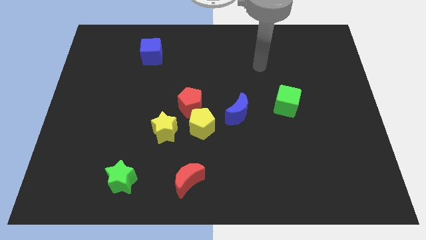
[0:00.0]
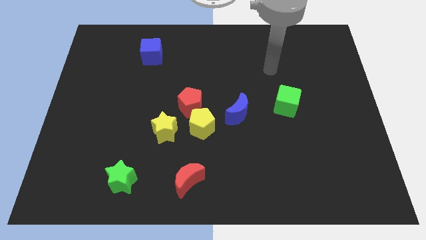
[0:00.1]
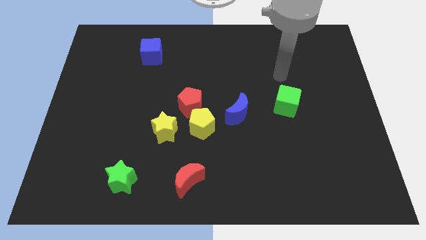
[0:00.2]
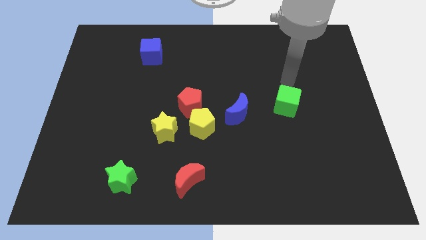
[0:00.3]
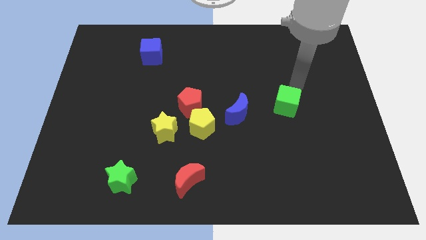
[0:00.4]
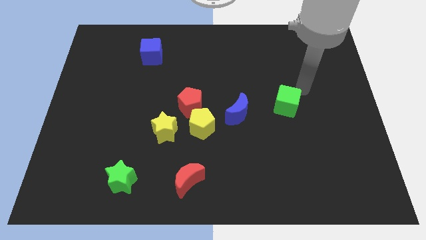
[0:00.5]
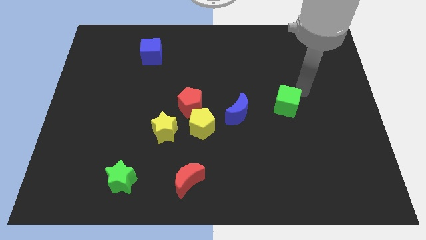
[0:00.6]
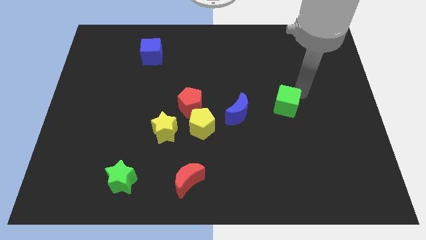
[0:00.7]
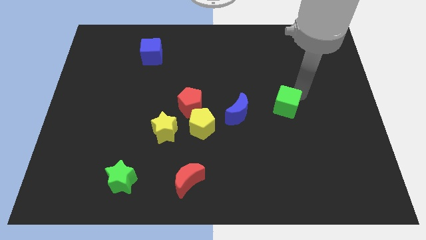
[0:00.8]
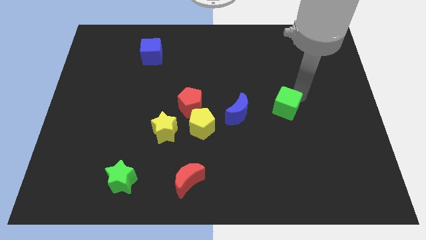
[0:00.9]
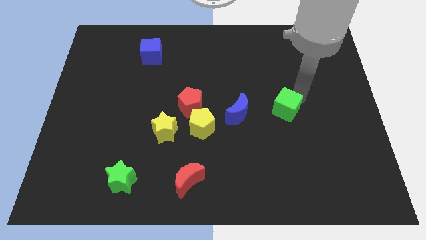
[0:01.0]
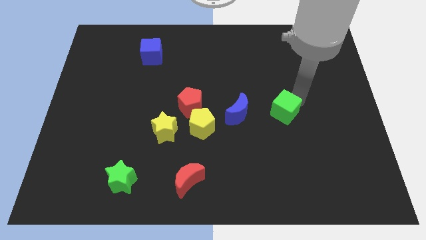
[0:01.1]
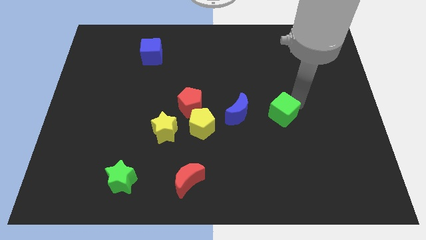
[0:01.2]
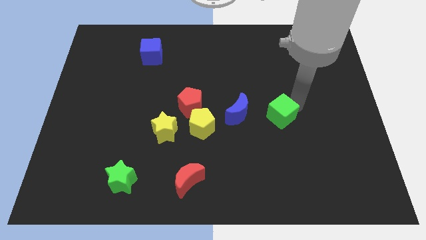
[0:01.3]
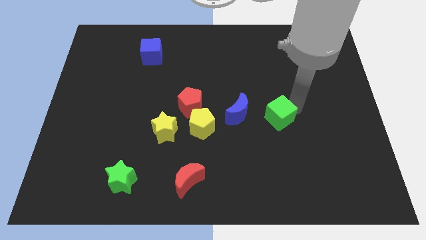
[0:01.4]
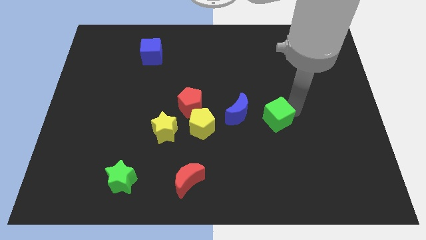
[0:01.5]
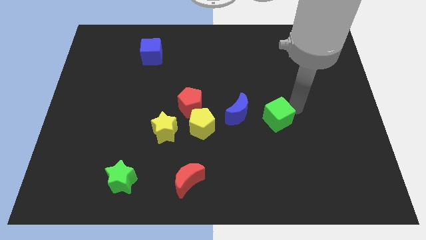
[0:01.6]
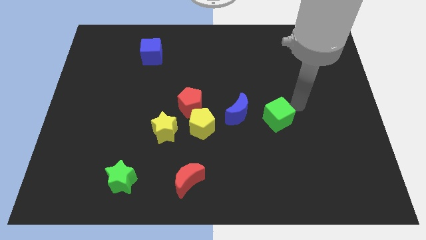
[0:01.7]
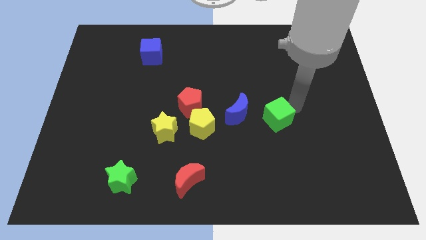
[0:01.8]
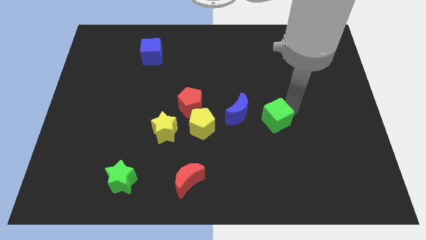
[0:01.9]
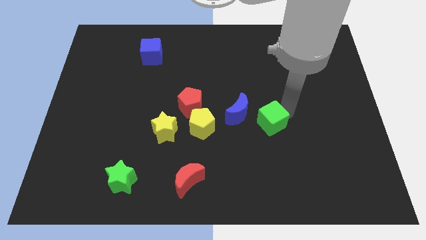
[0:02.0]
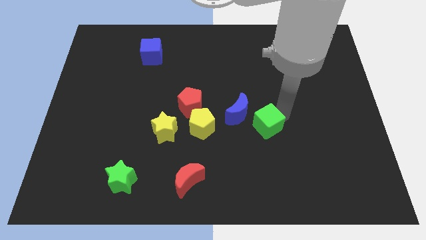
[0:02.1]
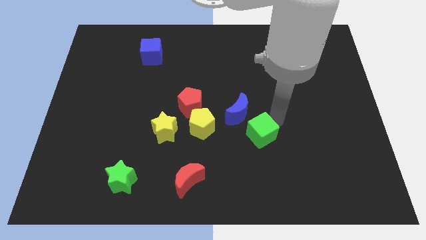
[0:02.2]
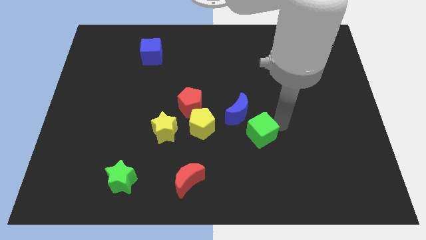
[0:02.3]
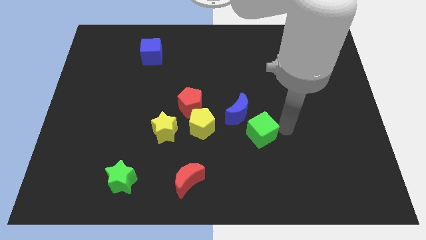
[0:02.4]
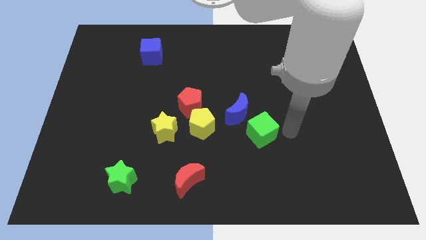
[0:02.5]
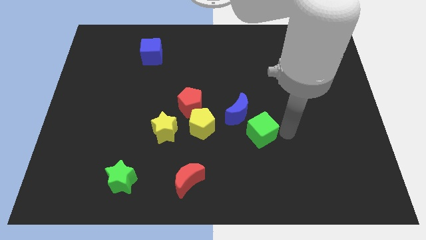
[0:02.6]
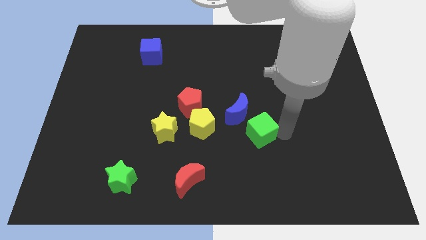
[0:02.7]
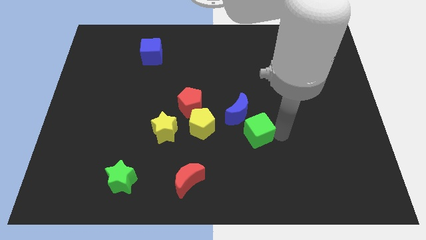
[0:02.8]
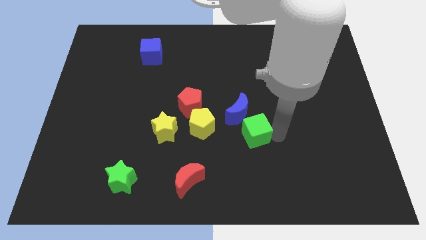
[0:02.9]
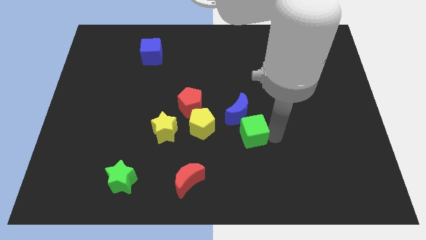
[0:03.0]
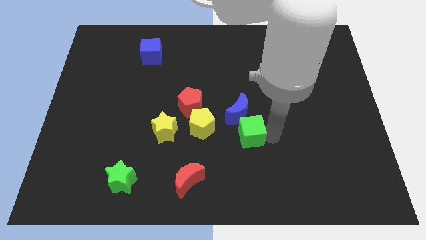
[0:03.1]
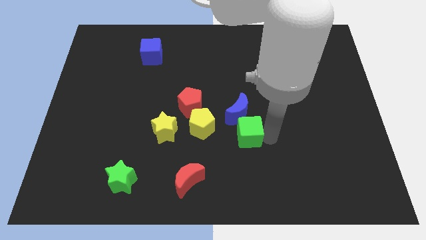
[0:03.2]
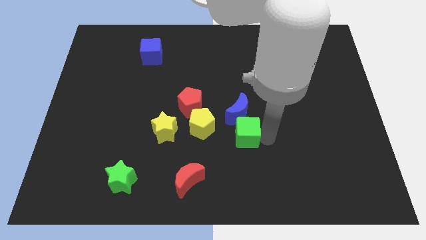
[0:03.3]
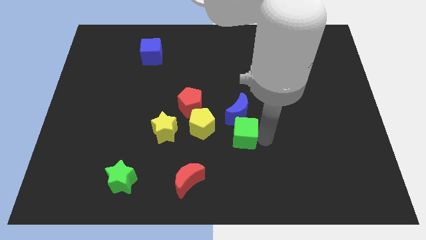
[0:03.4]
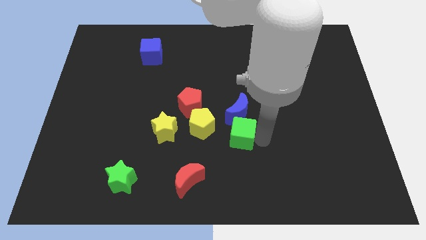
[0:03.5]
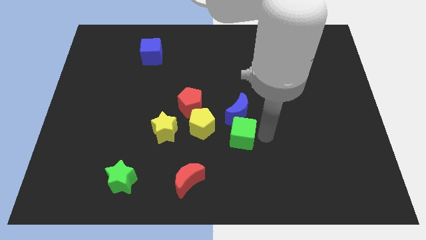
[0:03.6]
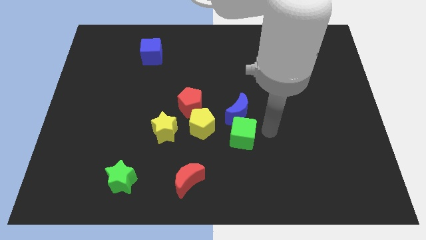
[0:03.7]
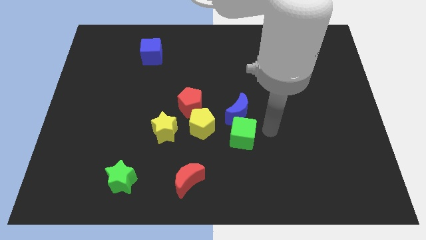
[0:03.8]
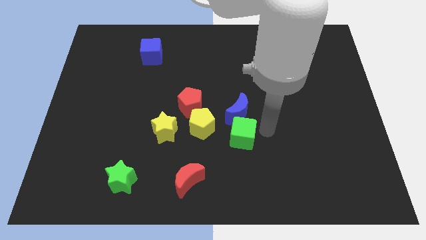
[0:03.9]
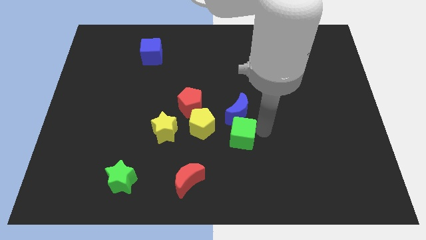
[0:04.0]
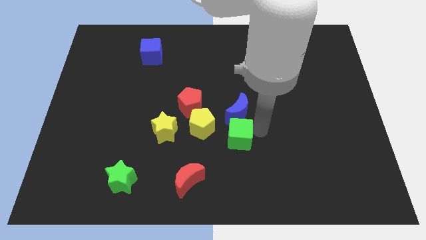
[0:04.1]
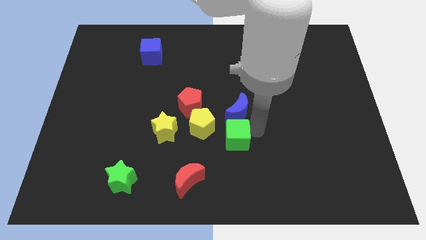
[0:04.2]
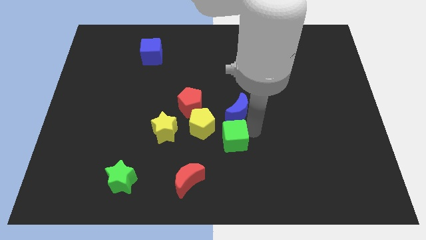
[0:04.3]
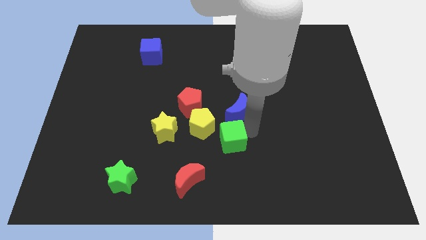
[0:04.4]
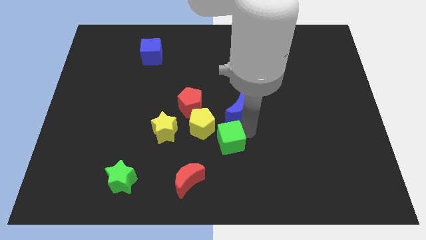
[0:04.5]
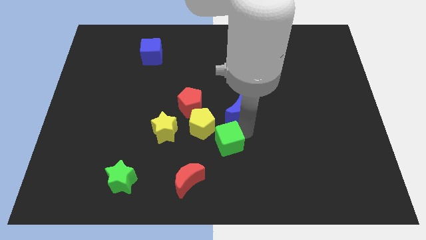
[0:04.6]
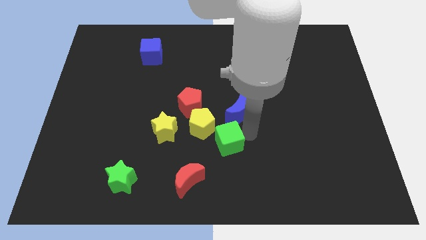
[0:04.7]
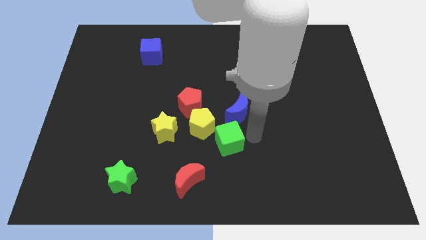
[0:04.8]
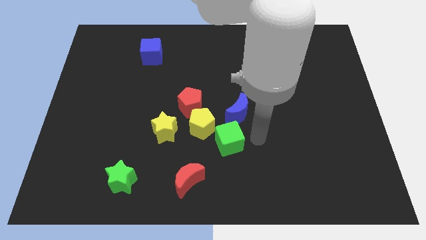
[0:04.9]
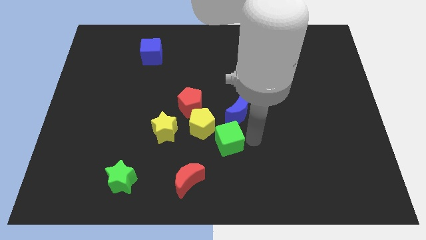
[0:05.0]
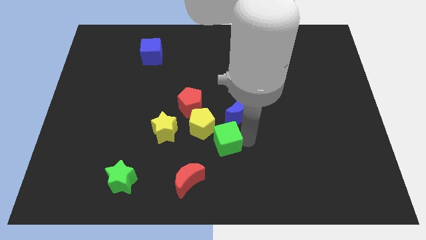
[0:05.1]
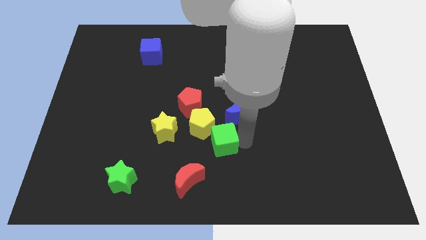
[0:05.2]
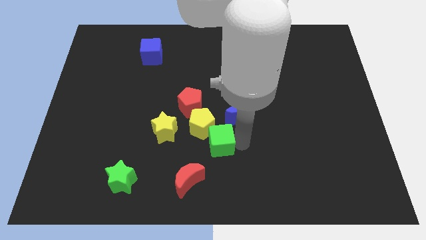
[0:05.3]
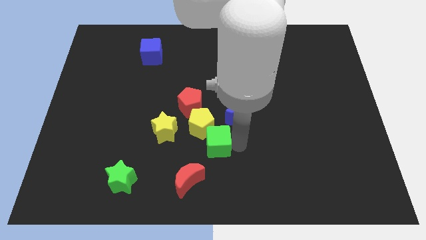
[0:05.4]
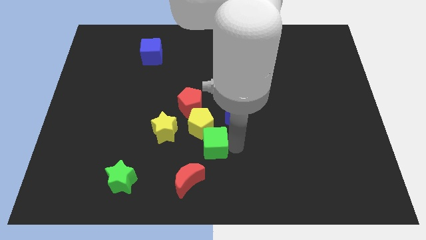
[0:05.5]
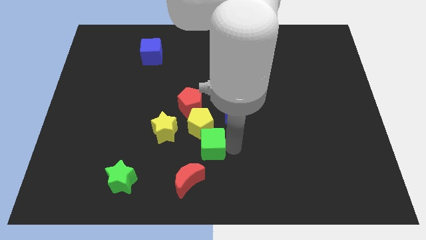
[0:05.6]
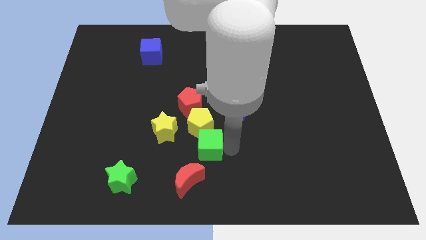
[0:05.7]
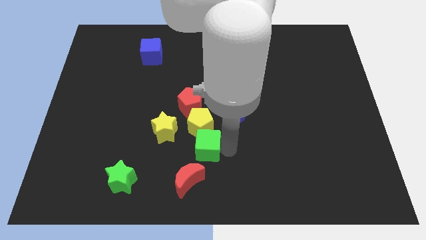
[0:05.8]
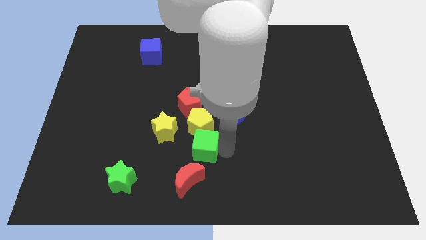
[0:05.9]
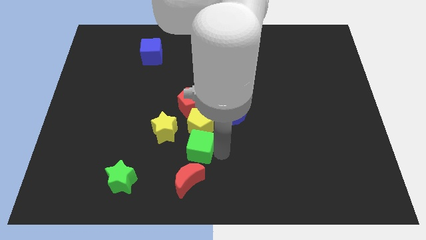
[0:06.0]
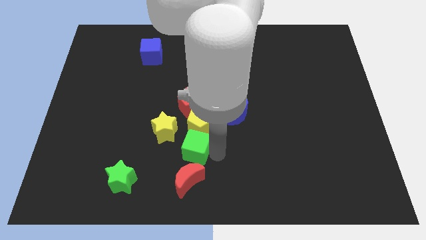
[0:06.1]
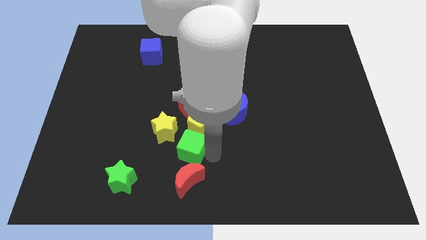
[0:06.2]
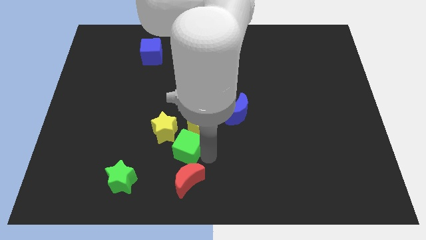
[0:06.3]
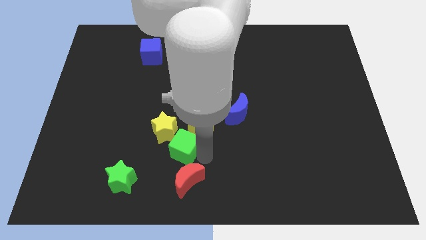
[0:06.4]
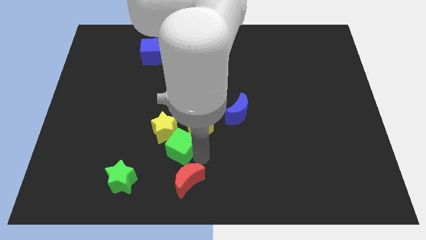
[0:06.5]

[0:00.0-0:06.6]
put the green cube close to the yellow star
